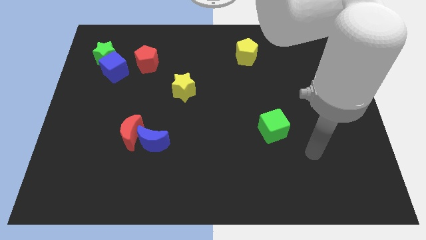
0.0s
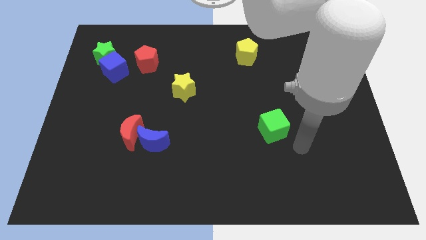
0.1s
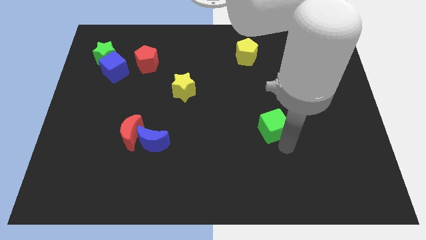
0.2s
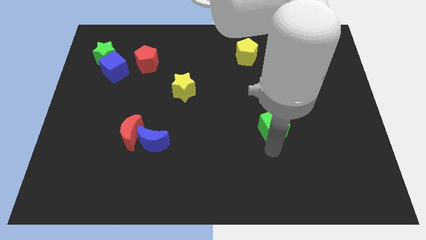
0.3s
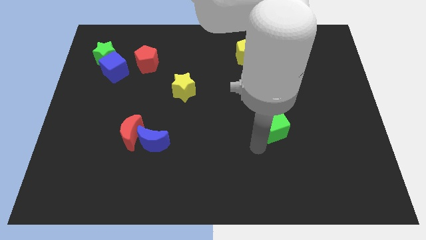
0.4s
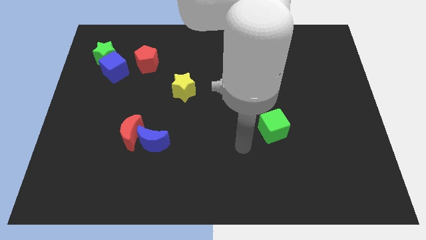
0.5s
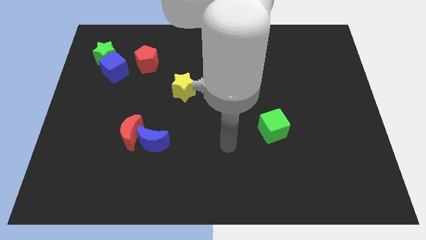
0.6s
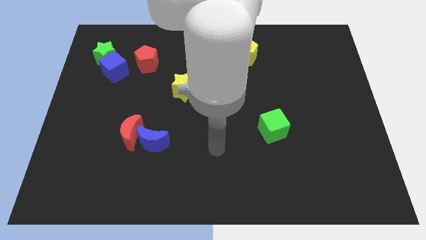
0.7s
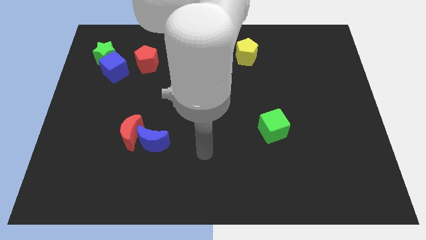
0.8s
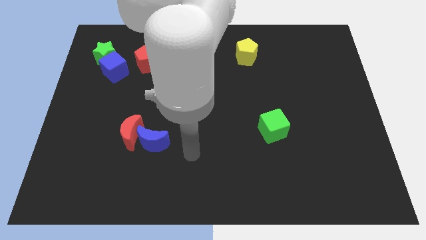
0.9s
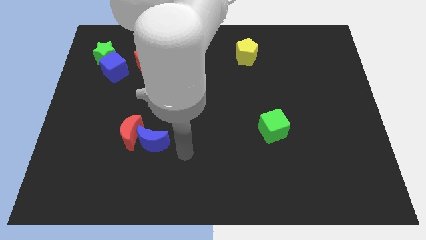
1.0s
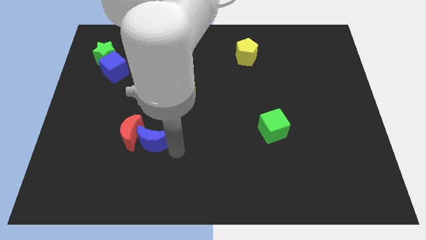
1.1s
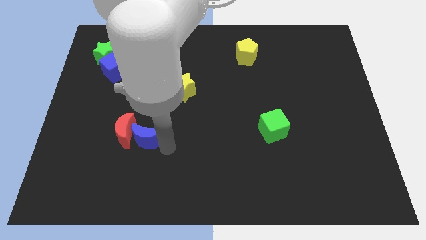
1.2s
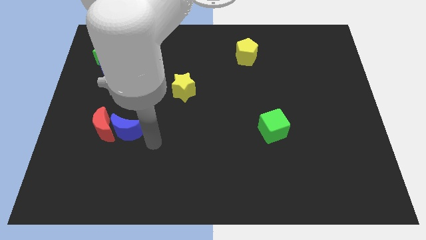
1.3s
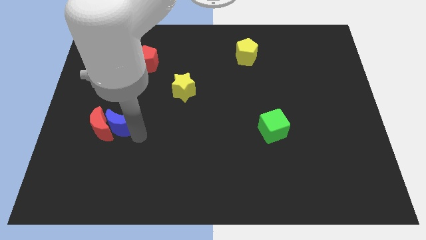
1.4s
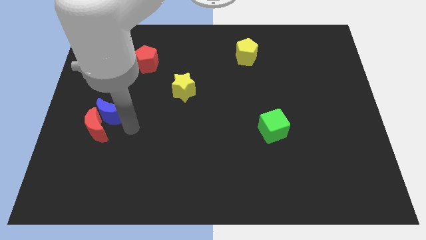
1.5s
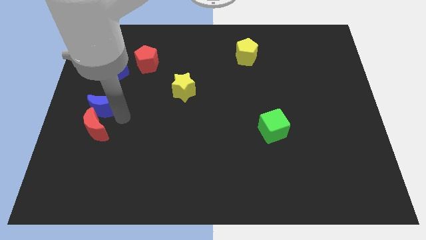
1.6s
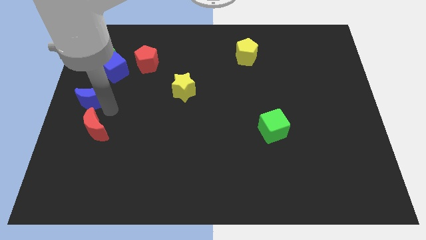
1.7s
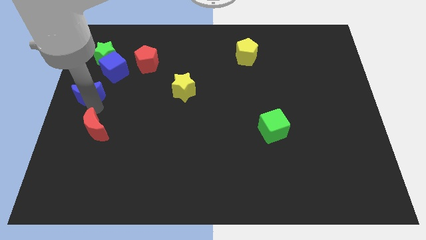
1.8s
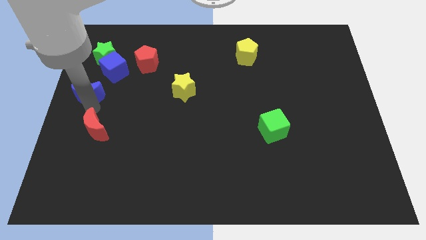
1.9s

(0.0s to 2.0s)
move the red moon away from the blue moon

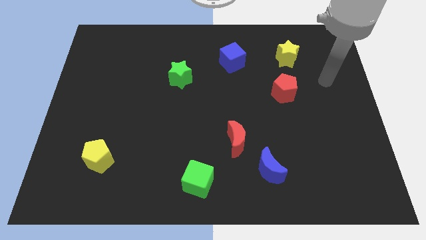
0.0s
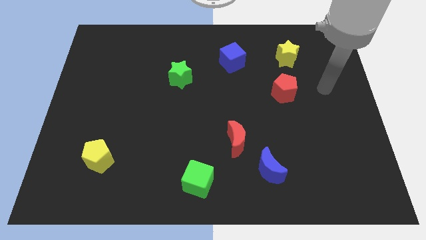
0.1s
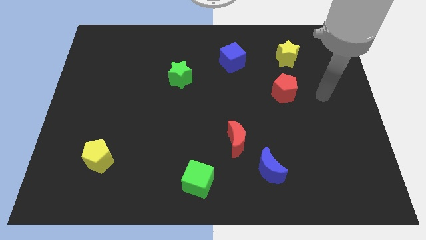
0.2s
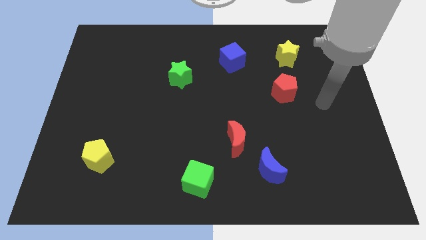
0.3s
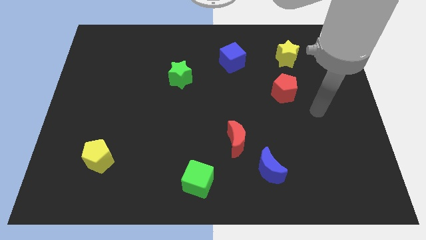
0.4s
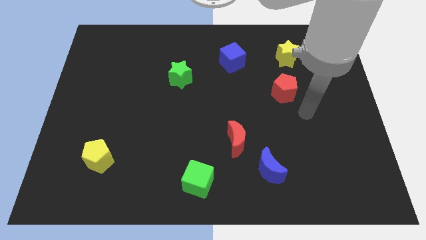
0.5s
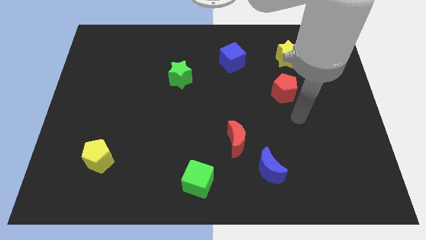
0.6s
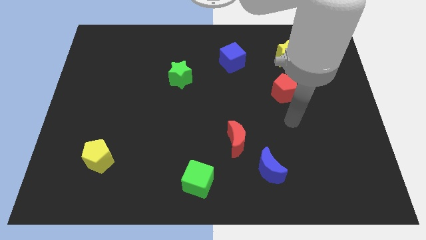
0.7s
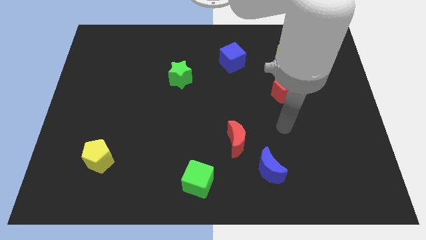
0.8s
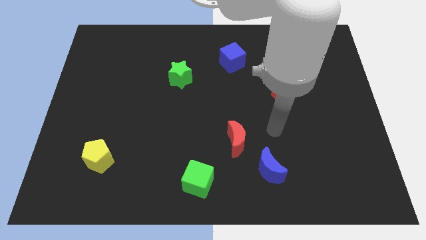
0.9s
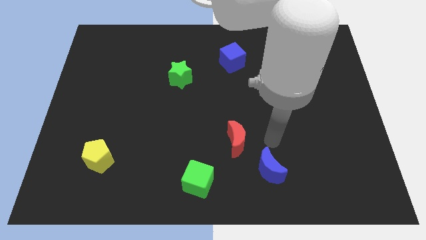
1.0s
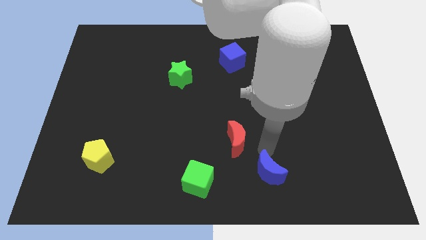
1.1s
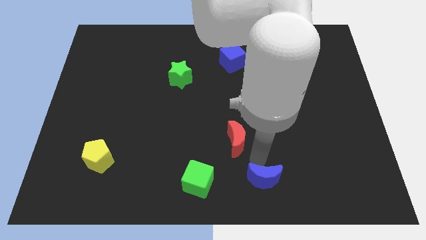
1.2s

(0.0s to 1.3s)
separate the red moon from the blue moon

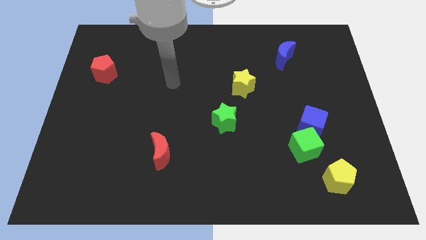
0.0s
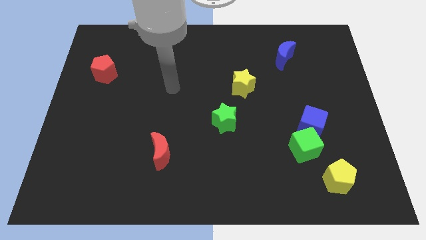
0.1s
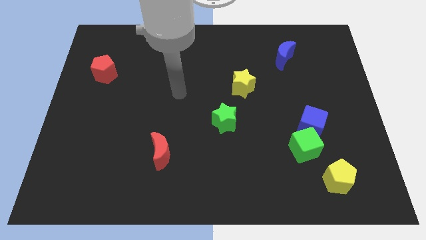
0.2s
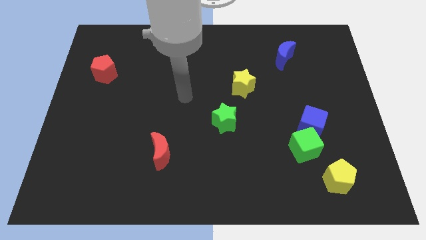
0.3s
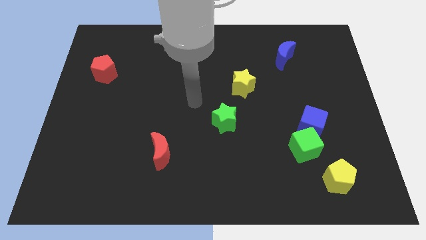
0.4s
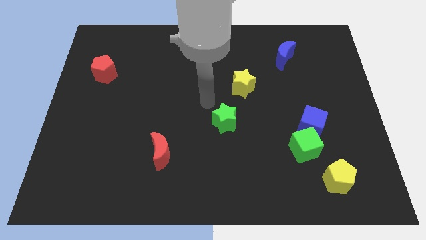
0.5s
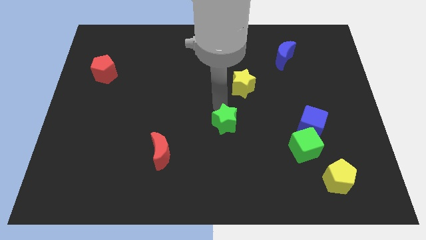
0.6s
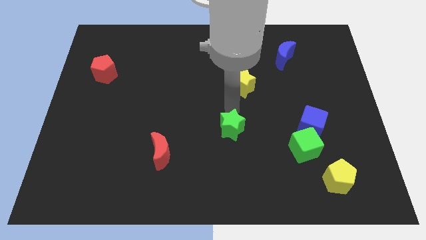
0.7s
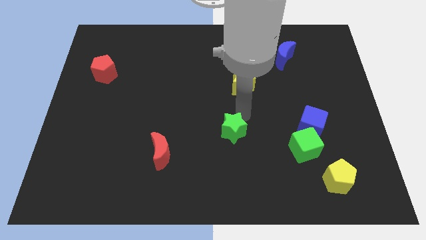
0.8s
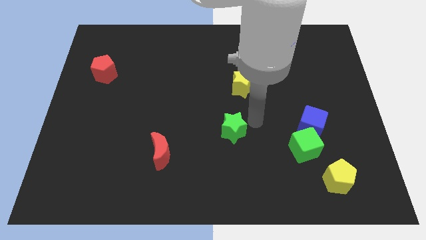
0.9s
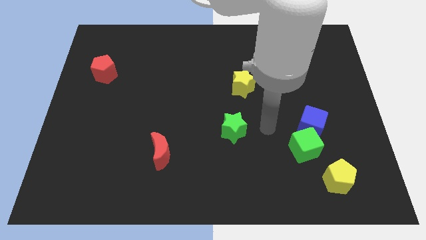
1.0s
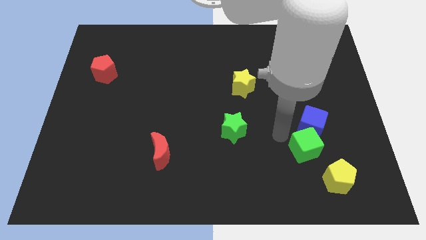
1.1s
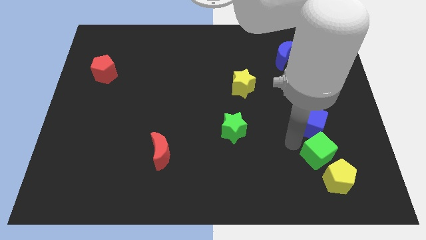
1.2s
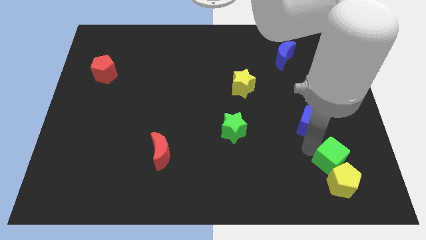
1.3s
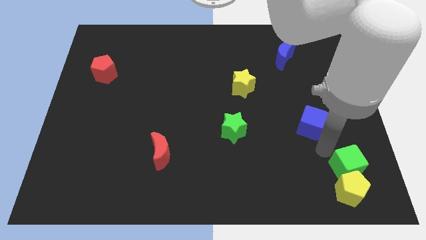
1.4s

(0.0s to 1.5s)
pull the blue cube apart from the green cube

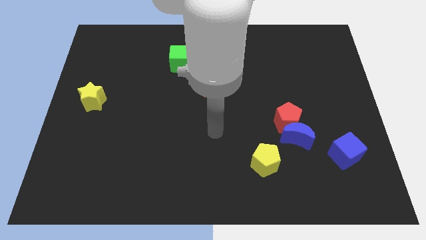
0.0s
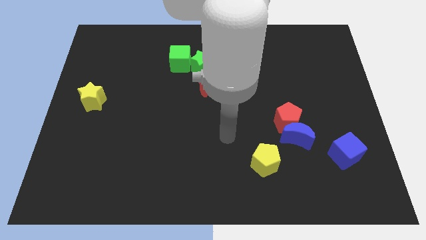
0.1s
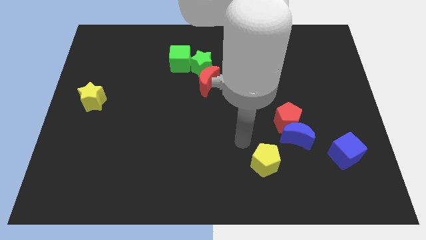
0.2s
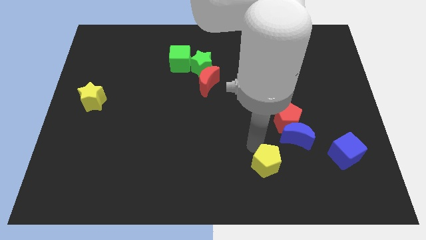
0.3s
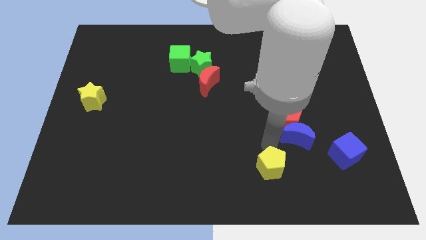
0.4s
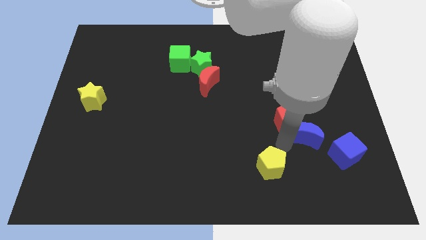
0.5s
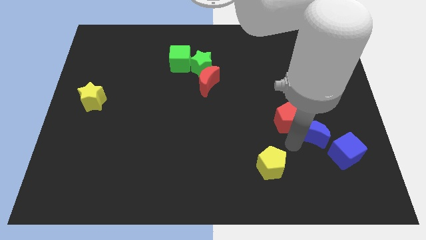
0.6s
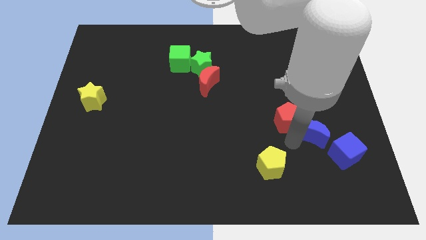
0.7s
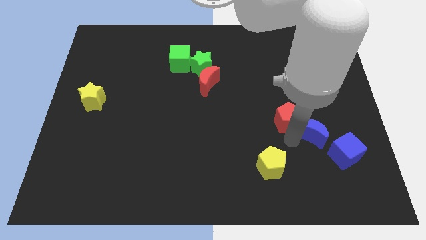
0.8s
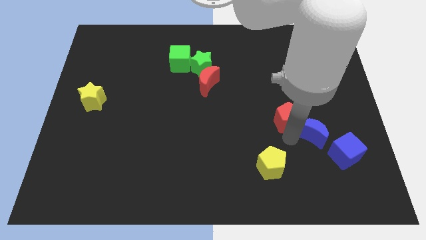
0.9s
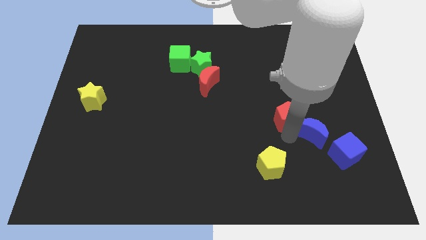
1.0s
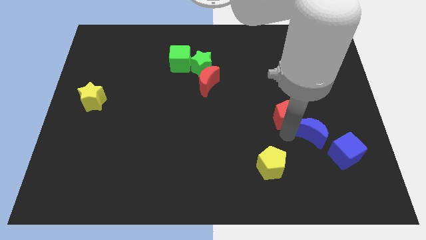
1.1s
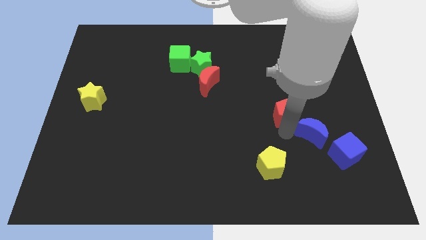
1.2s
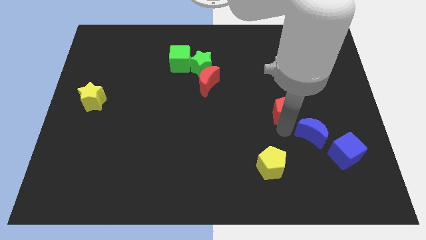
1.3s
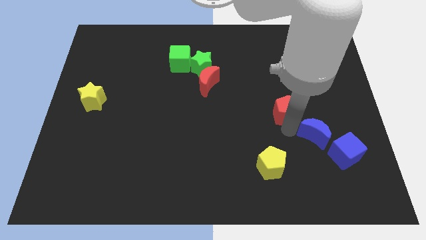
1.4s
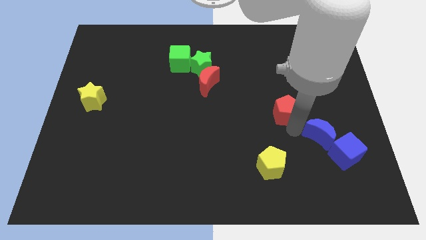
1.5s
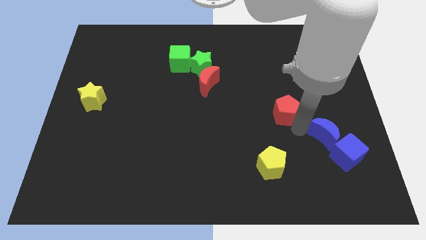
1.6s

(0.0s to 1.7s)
pull the red pentagon apart from the blue moon

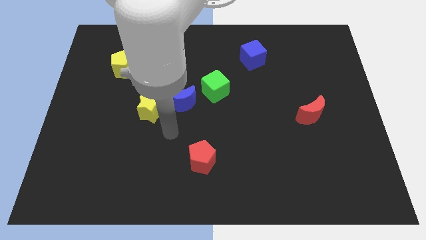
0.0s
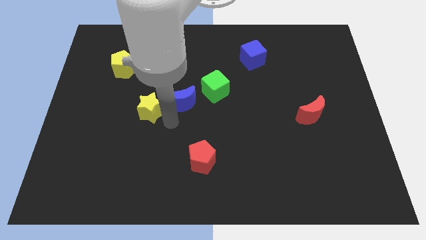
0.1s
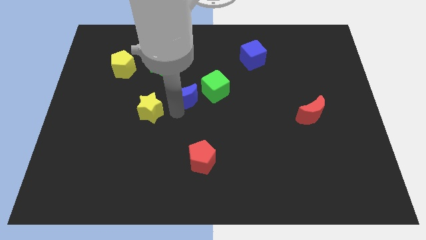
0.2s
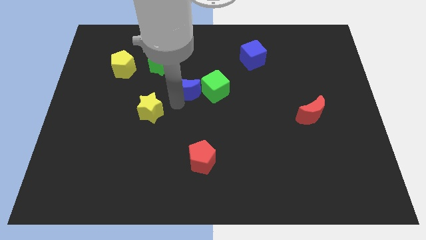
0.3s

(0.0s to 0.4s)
pull the yellow star apart from the blue moon

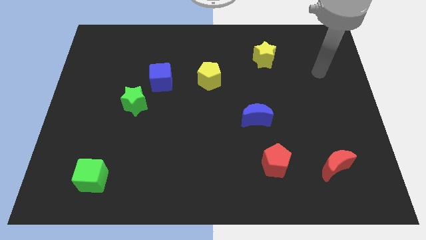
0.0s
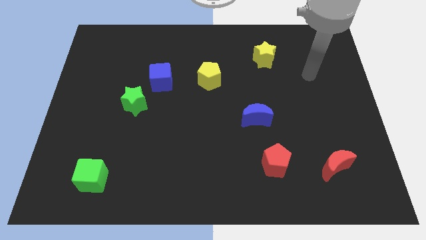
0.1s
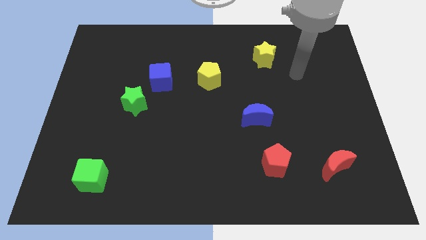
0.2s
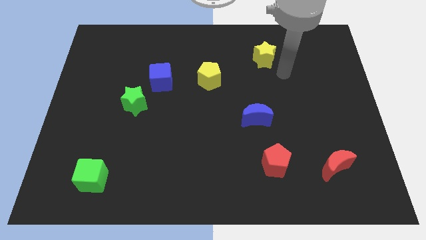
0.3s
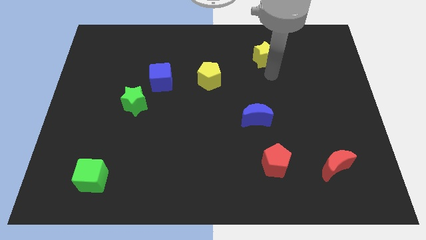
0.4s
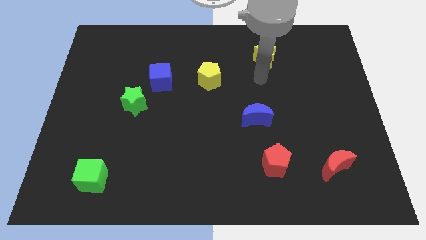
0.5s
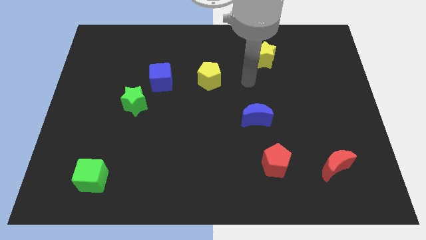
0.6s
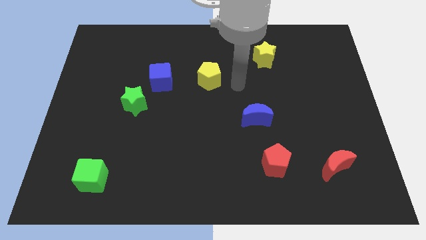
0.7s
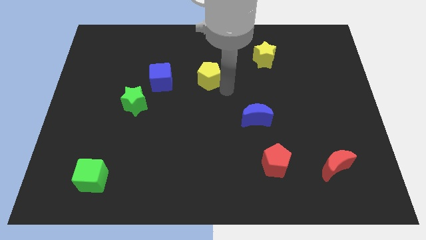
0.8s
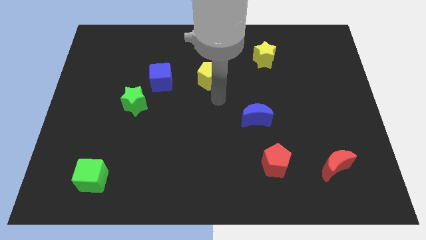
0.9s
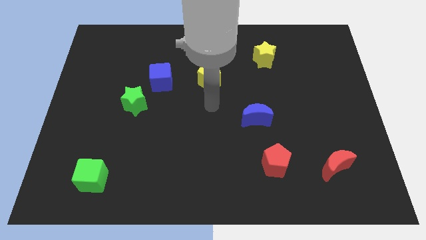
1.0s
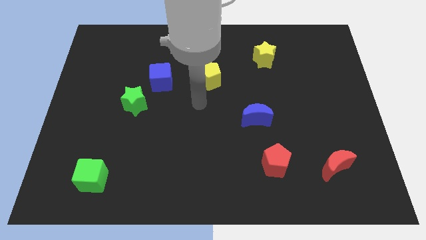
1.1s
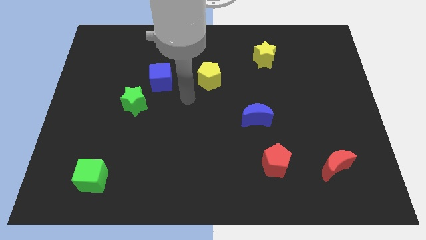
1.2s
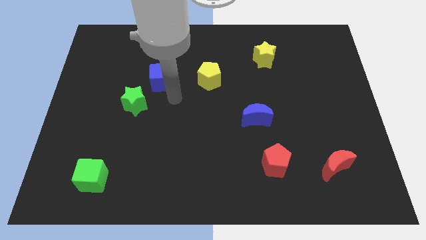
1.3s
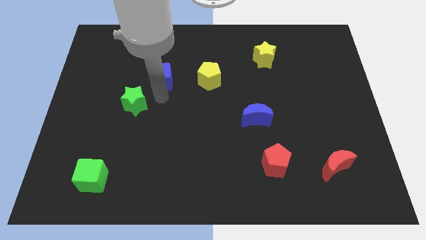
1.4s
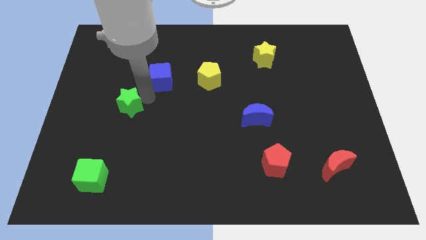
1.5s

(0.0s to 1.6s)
pull the blue cube apart from the green star

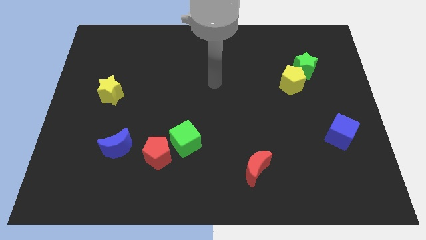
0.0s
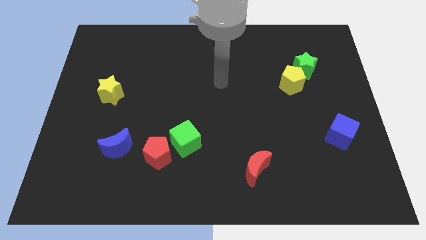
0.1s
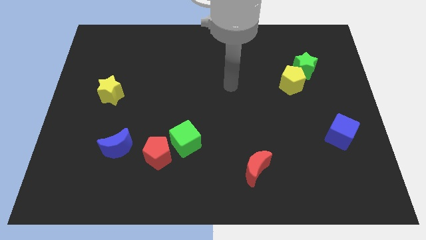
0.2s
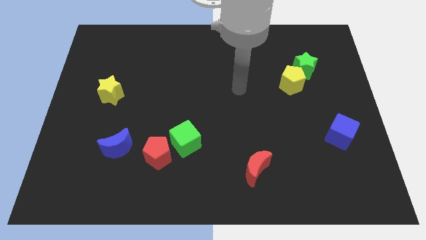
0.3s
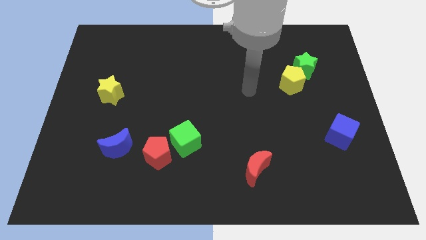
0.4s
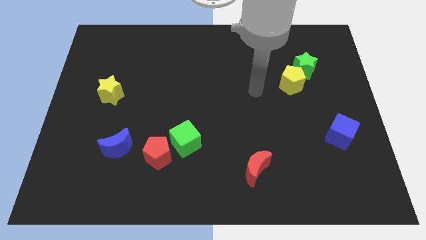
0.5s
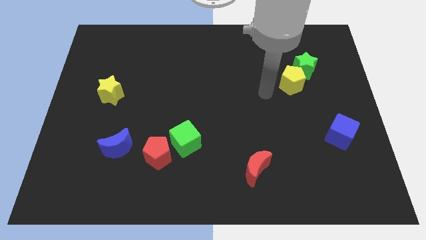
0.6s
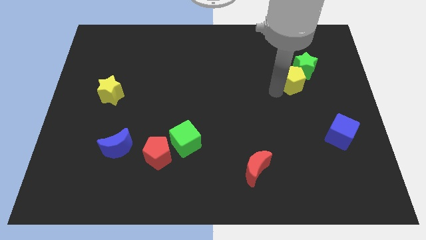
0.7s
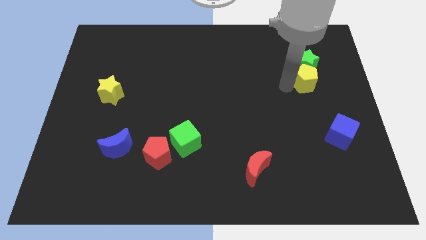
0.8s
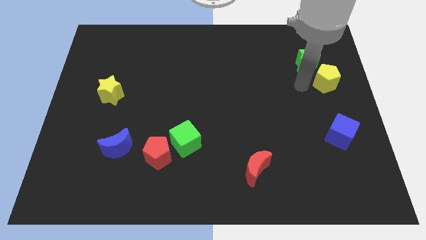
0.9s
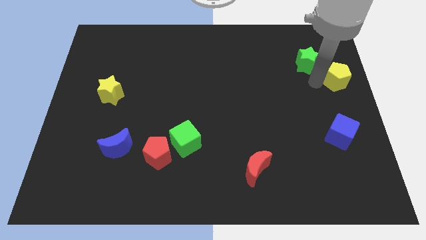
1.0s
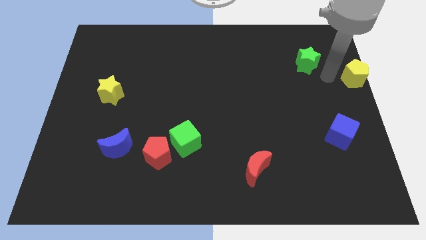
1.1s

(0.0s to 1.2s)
pull the green star apart from the yellow pentagon
